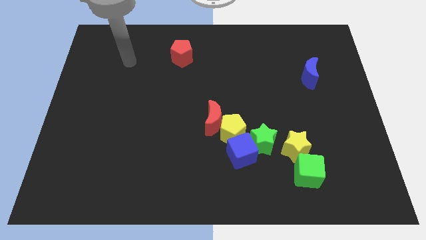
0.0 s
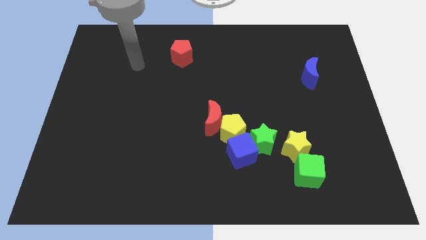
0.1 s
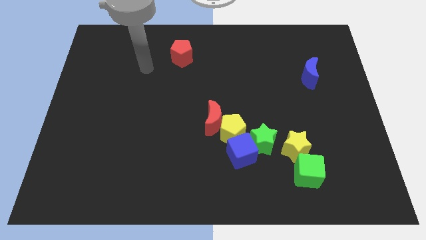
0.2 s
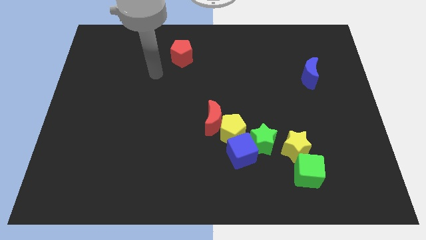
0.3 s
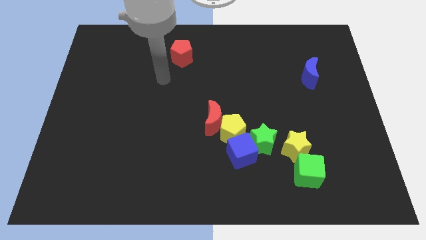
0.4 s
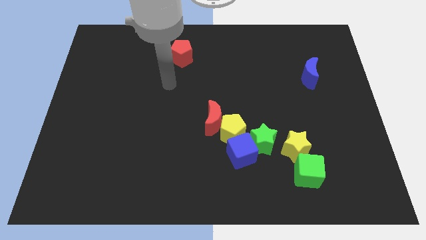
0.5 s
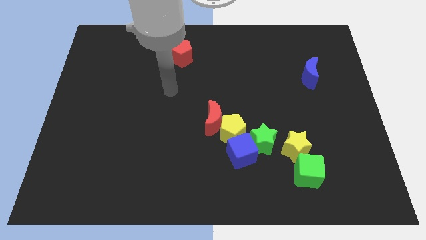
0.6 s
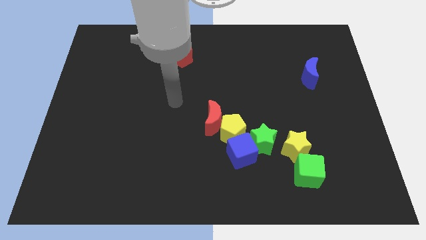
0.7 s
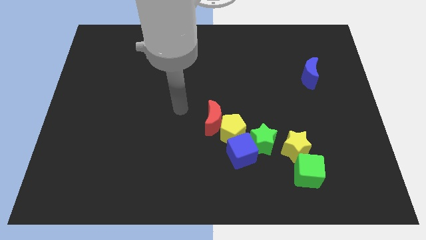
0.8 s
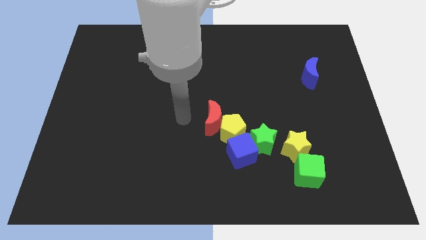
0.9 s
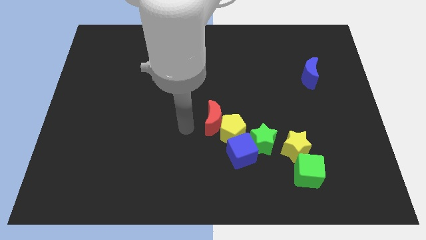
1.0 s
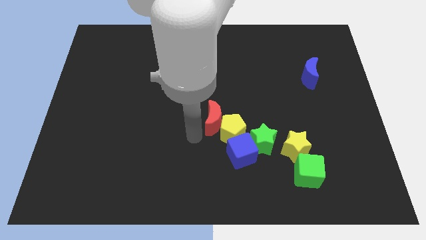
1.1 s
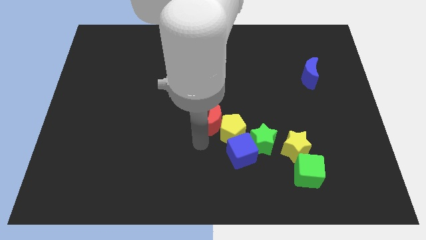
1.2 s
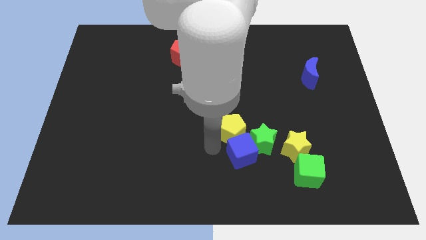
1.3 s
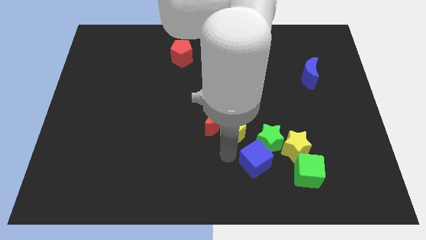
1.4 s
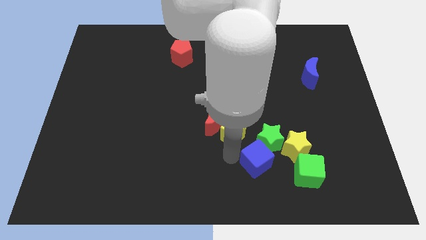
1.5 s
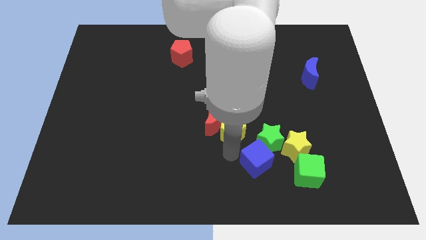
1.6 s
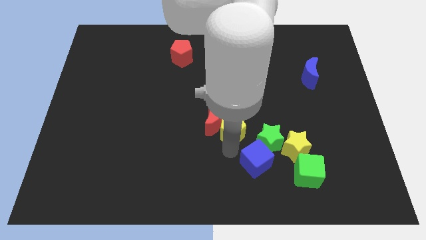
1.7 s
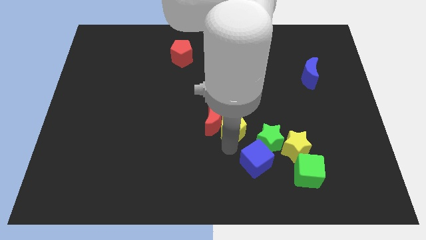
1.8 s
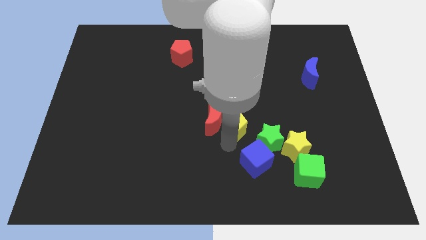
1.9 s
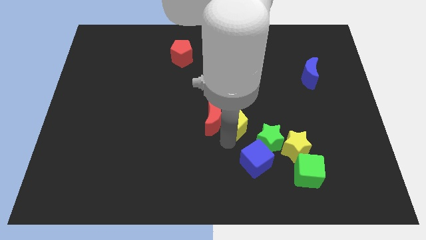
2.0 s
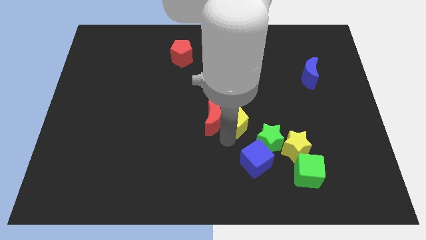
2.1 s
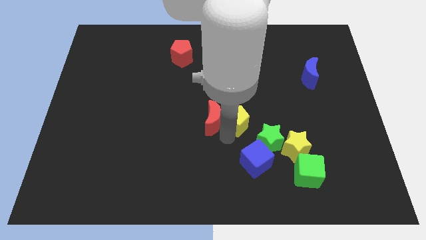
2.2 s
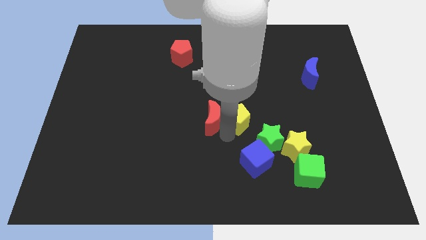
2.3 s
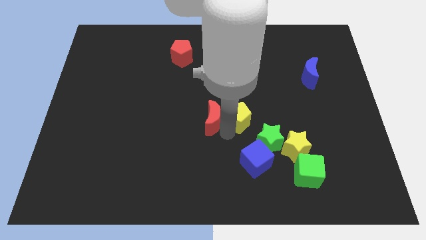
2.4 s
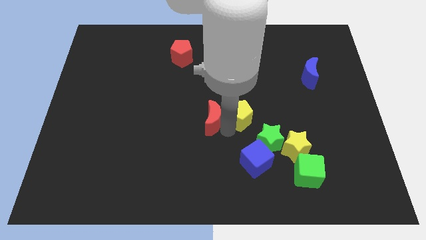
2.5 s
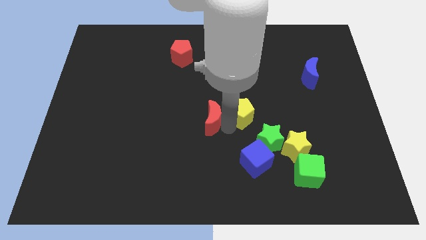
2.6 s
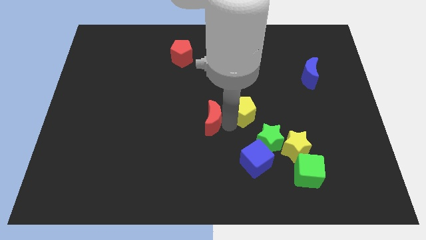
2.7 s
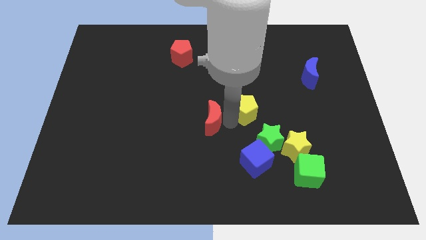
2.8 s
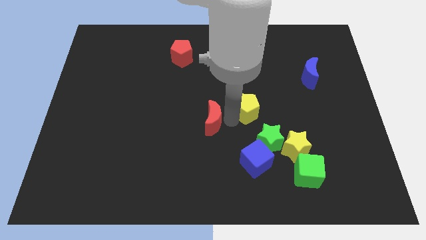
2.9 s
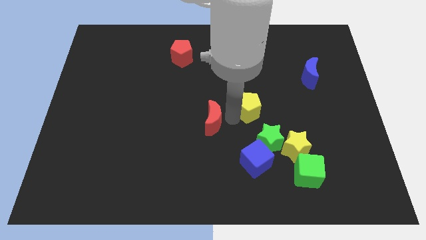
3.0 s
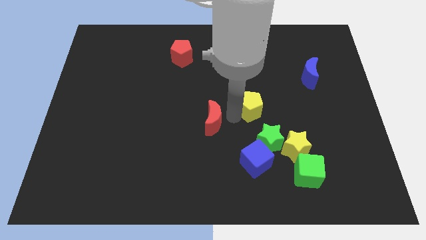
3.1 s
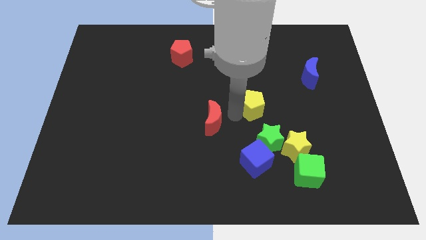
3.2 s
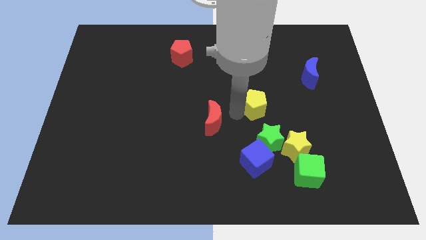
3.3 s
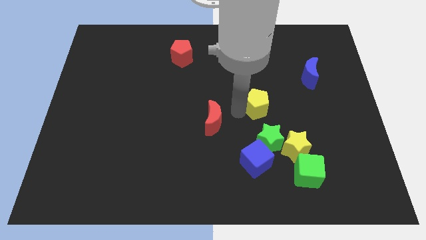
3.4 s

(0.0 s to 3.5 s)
separate the yellow pentagon from the group

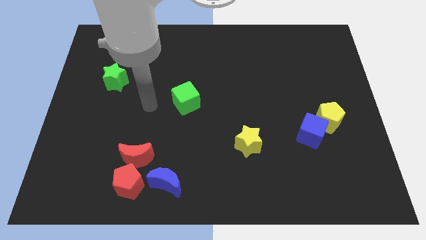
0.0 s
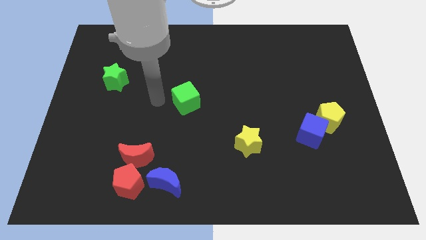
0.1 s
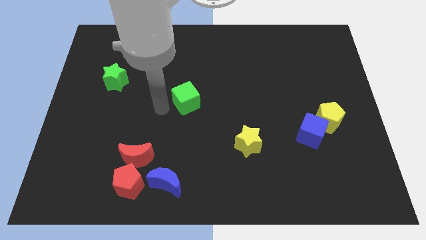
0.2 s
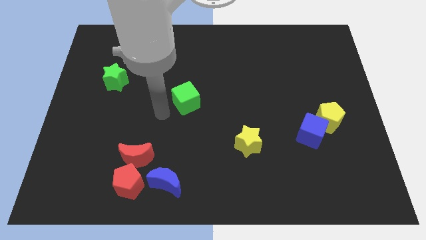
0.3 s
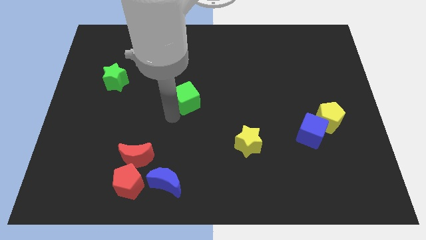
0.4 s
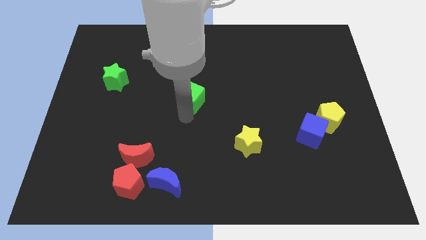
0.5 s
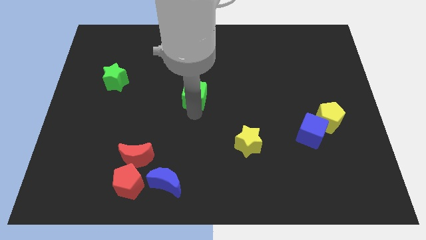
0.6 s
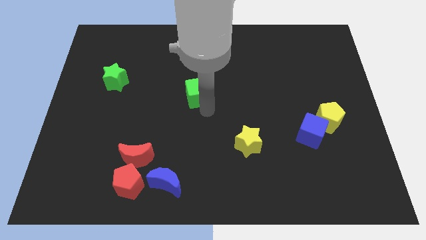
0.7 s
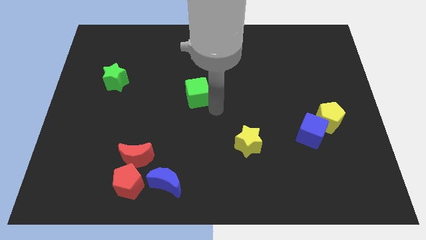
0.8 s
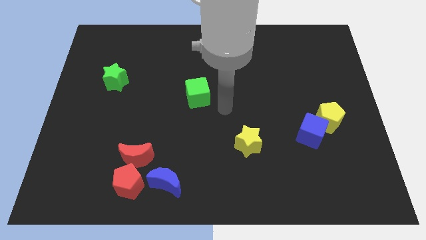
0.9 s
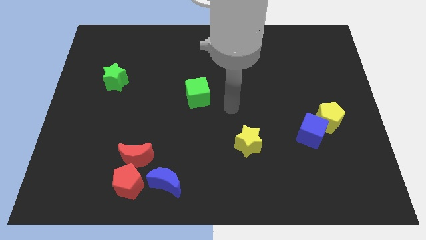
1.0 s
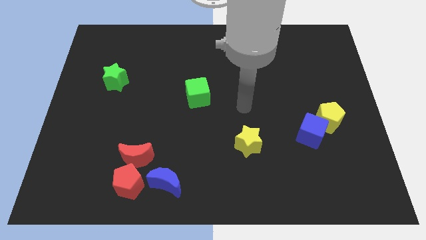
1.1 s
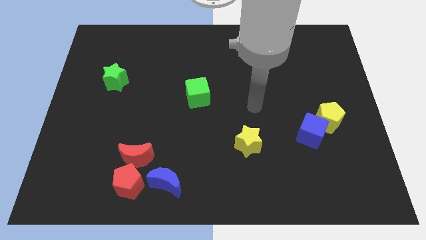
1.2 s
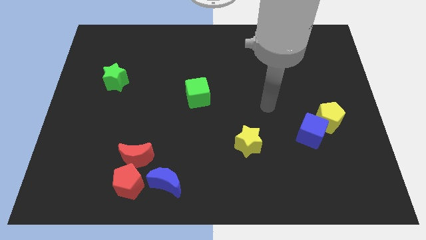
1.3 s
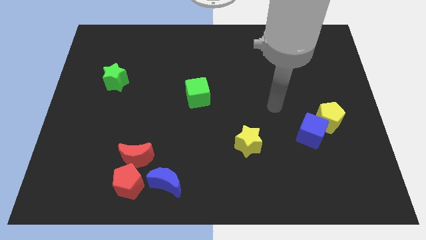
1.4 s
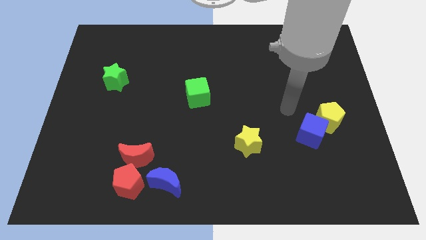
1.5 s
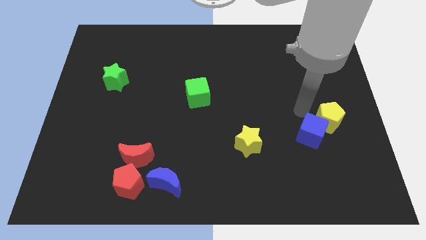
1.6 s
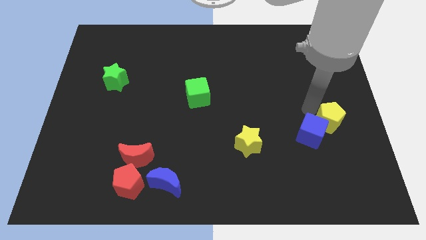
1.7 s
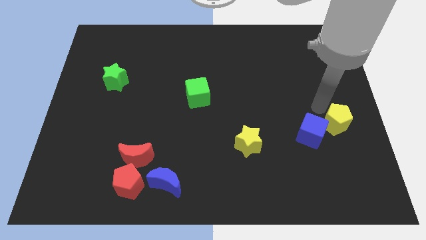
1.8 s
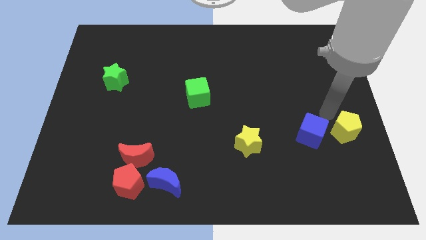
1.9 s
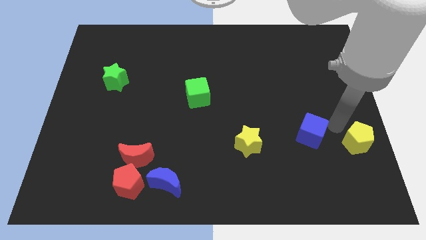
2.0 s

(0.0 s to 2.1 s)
pull the blue cube apart from the yellow pentagon

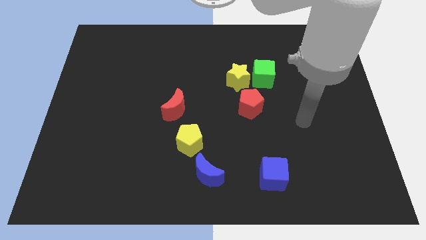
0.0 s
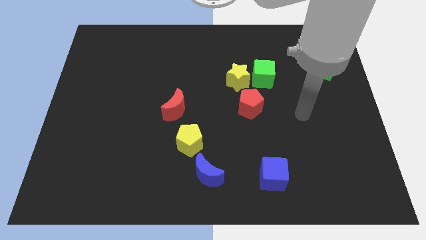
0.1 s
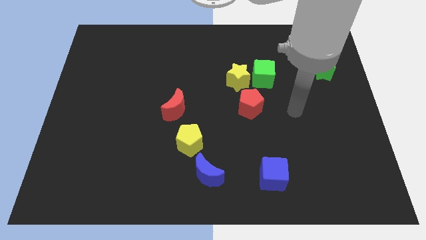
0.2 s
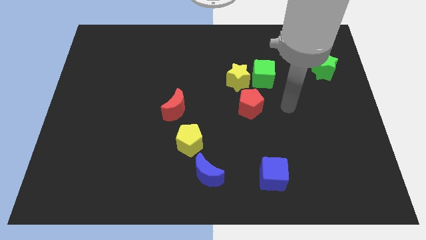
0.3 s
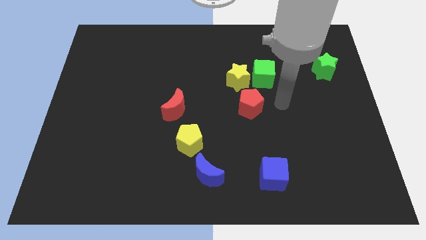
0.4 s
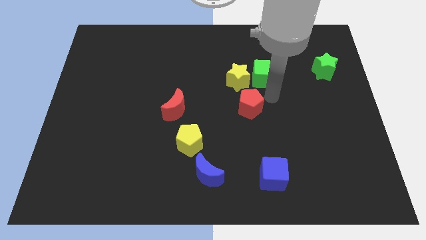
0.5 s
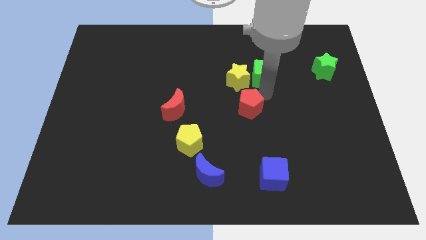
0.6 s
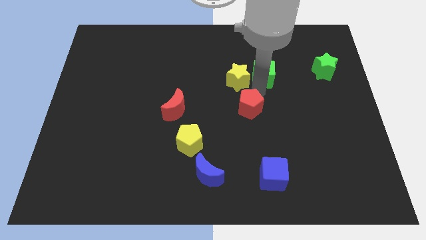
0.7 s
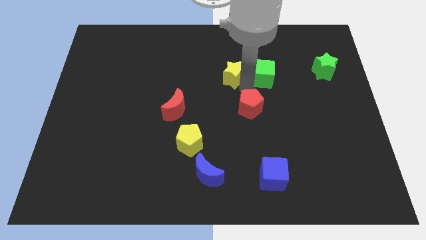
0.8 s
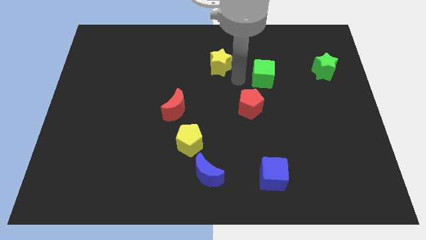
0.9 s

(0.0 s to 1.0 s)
pull the green cube apart from the yellow star

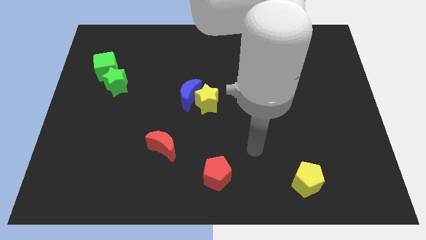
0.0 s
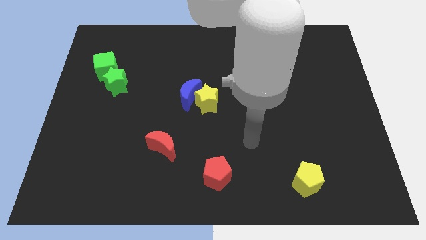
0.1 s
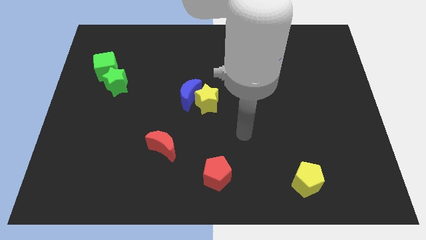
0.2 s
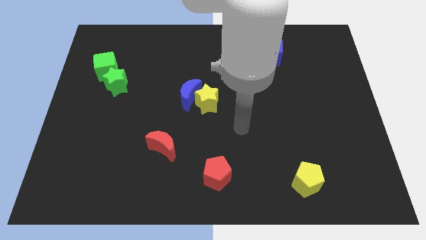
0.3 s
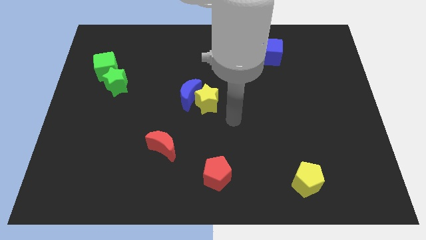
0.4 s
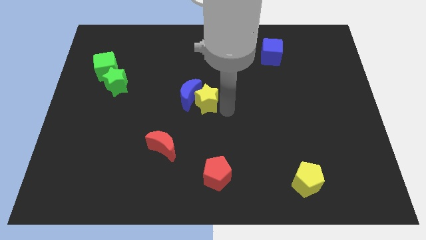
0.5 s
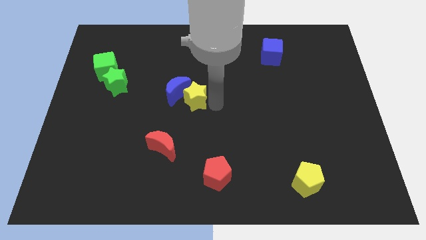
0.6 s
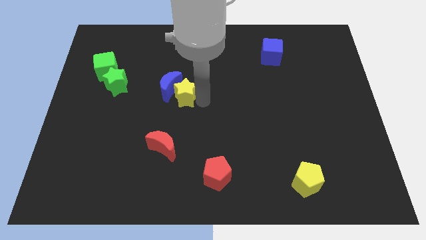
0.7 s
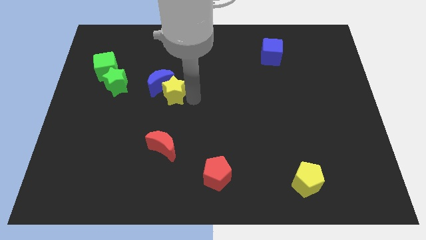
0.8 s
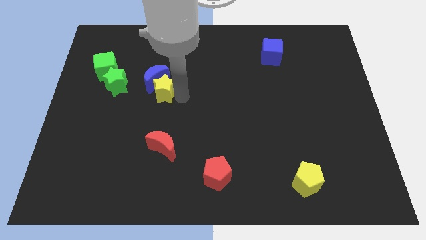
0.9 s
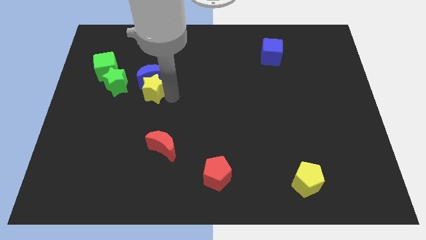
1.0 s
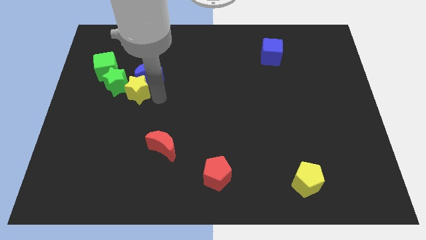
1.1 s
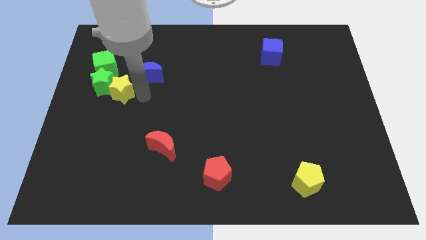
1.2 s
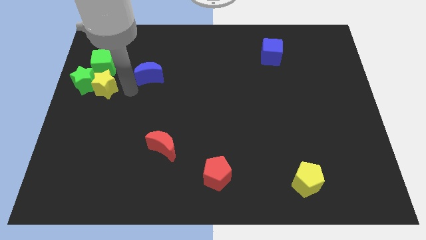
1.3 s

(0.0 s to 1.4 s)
move the blue moon away from the yellow star

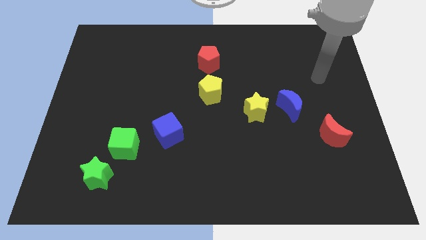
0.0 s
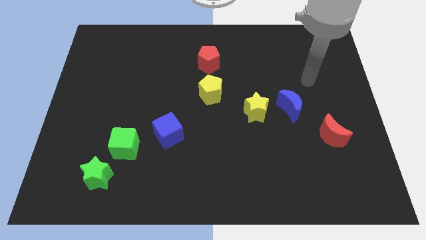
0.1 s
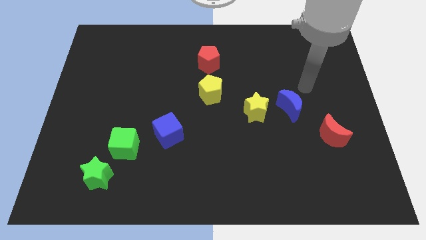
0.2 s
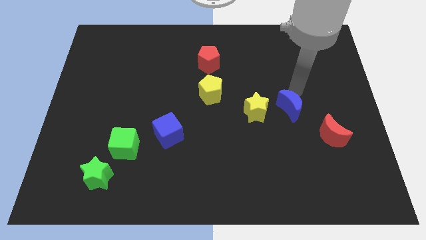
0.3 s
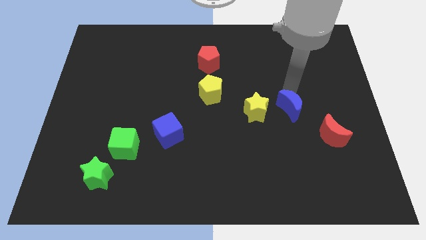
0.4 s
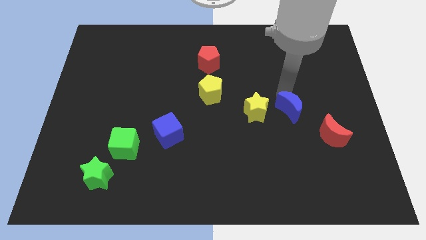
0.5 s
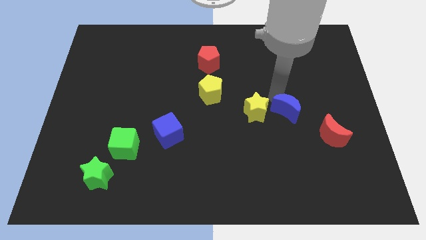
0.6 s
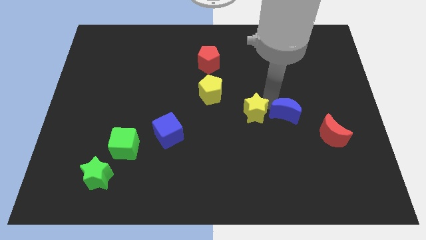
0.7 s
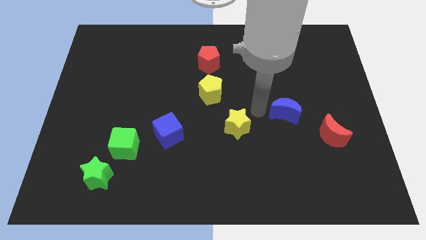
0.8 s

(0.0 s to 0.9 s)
separate the blue moon from the yellow star

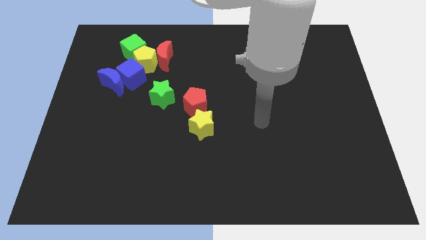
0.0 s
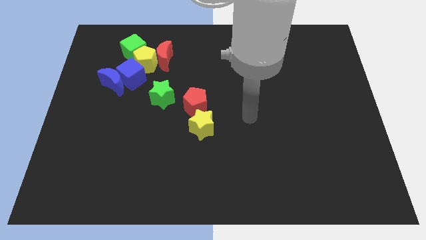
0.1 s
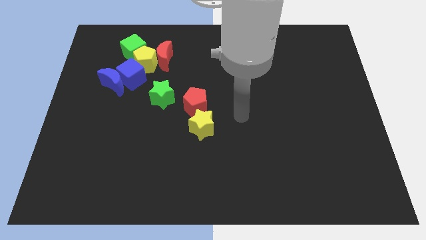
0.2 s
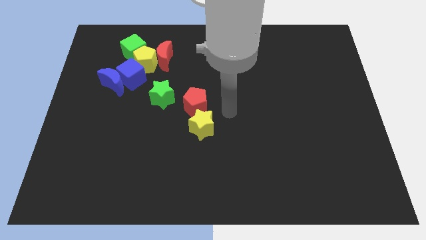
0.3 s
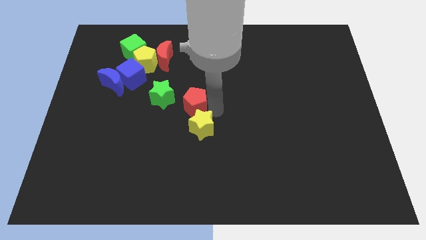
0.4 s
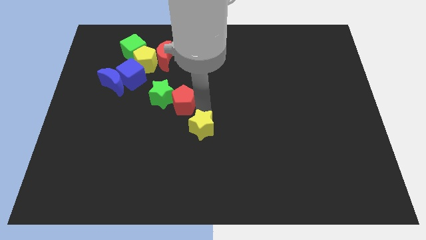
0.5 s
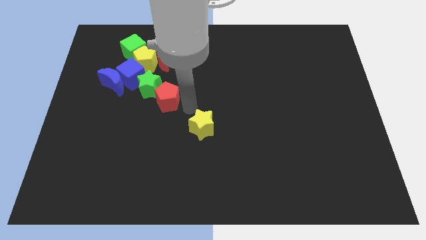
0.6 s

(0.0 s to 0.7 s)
pull the yellow star apart from the red pentagon
